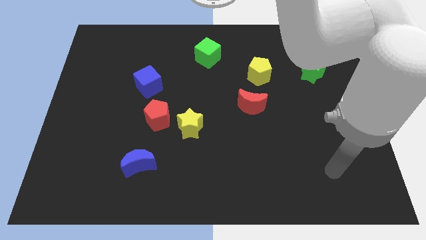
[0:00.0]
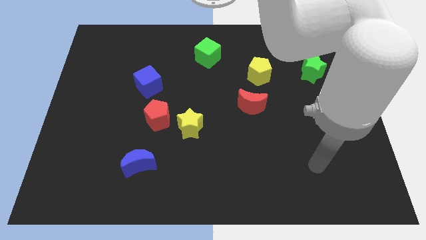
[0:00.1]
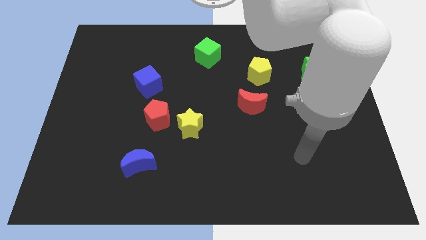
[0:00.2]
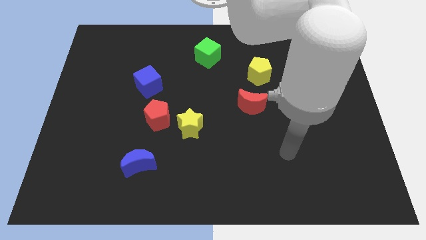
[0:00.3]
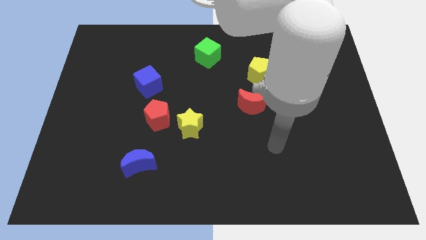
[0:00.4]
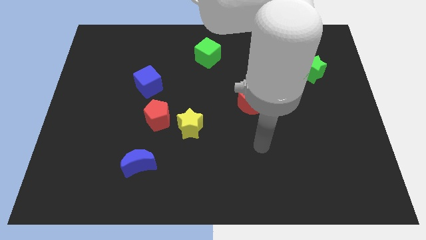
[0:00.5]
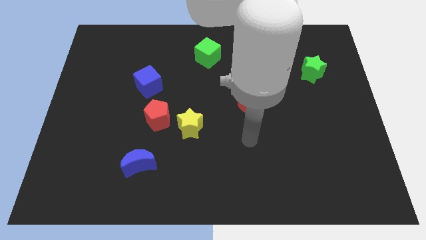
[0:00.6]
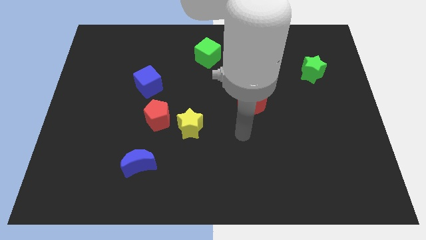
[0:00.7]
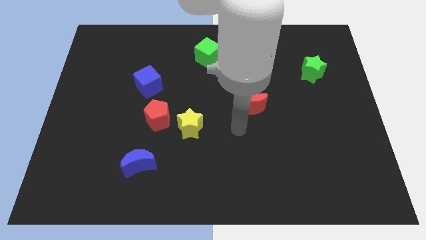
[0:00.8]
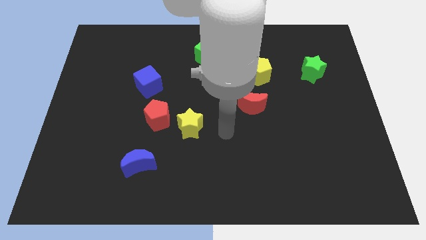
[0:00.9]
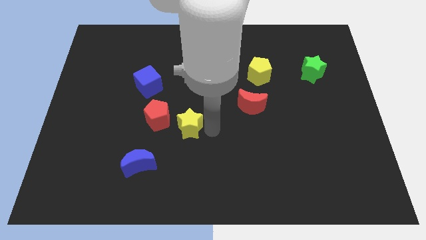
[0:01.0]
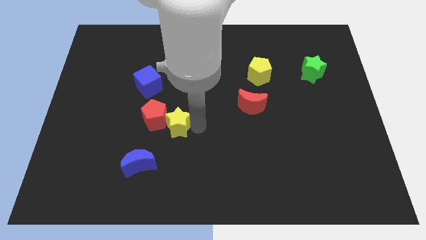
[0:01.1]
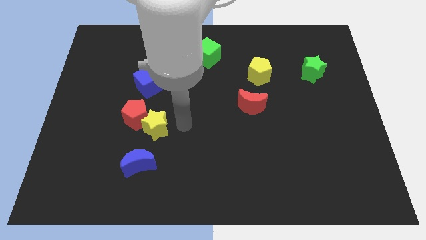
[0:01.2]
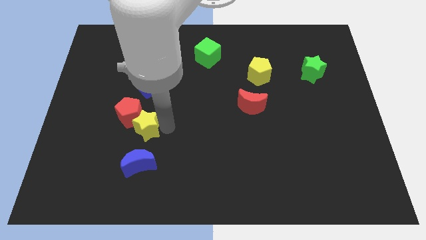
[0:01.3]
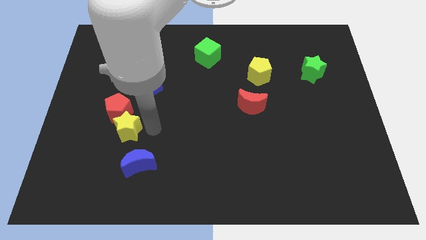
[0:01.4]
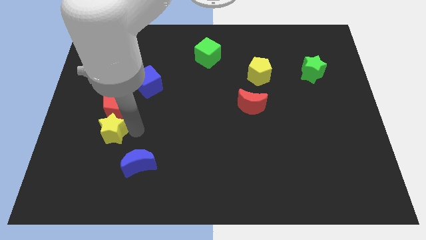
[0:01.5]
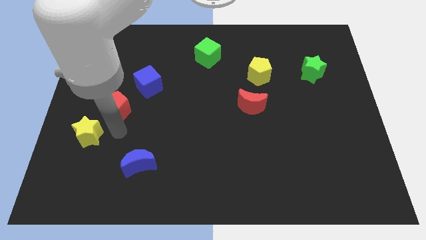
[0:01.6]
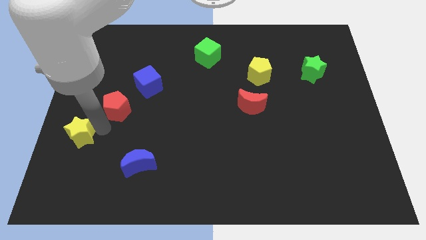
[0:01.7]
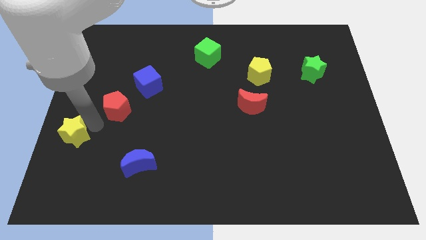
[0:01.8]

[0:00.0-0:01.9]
move the red pentagon away from the yellow star

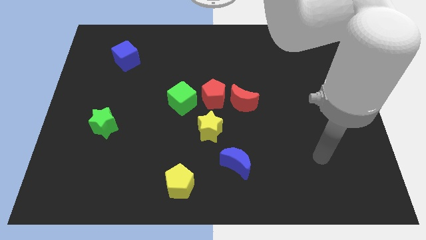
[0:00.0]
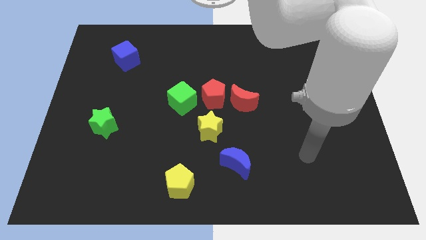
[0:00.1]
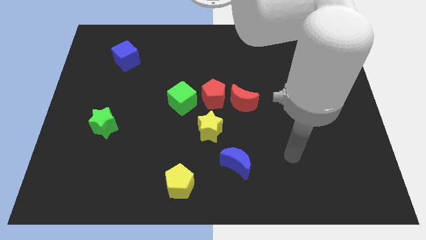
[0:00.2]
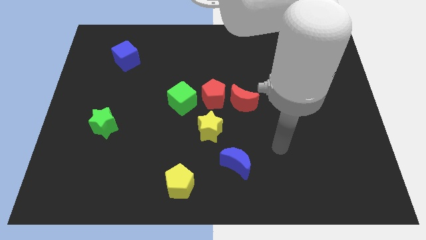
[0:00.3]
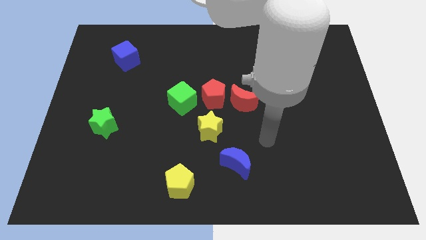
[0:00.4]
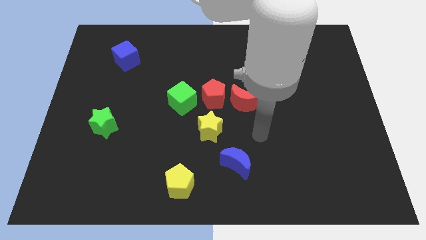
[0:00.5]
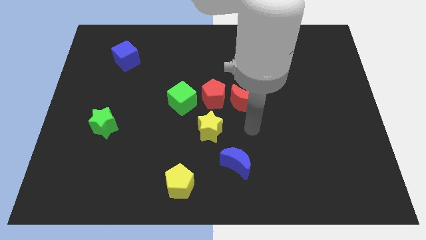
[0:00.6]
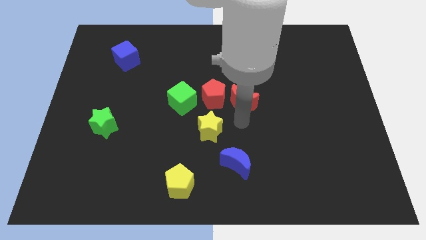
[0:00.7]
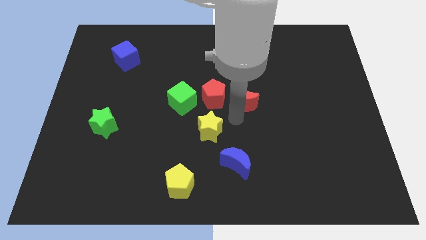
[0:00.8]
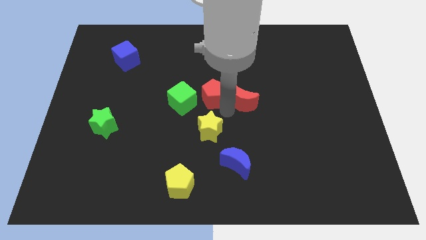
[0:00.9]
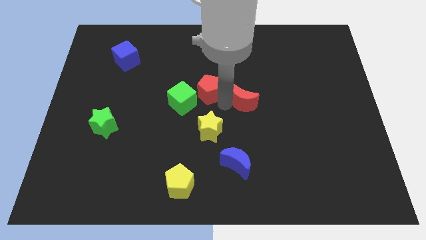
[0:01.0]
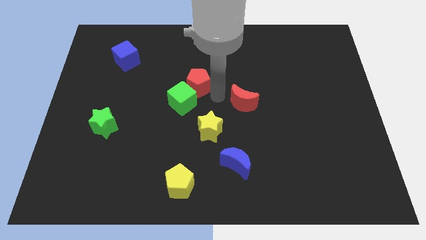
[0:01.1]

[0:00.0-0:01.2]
separate the red moon from the red pentagon

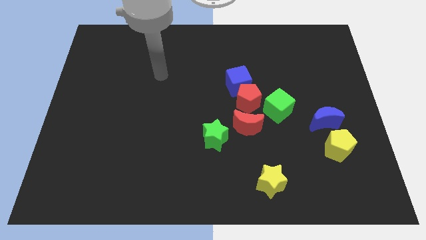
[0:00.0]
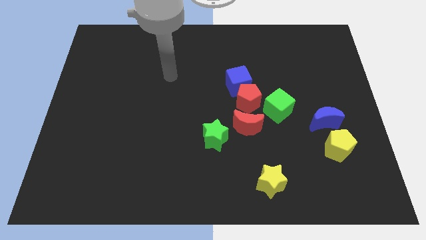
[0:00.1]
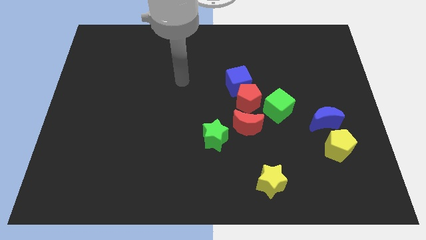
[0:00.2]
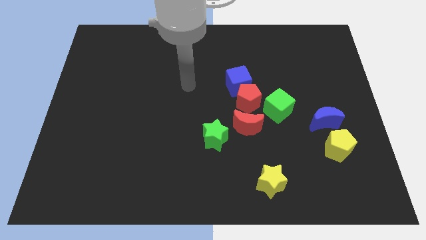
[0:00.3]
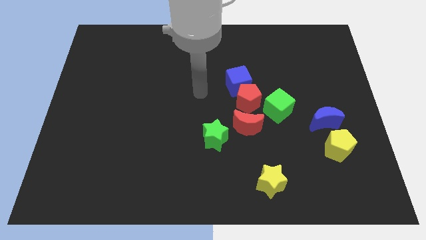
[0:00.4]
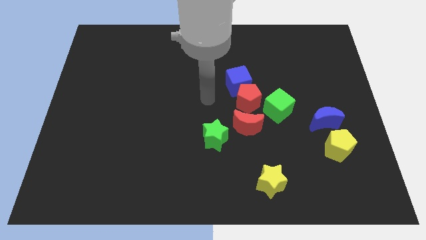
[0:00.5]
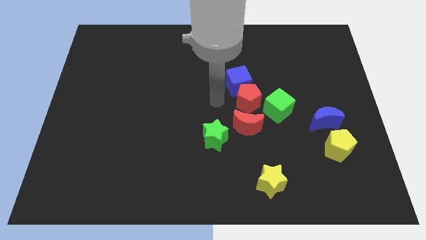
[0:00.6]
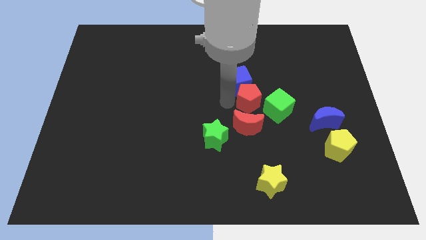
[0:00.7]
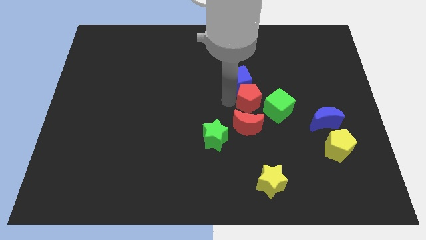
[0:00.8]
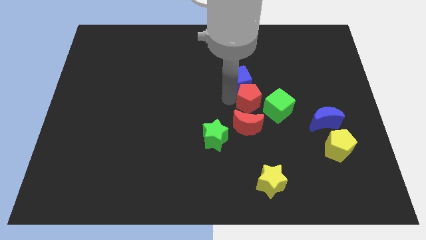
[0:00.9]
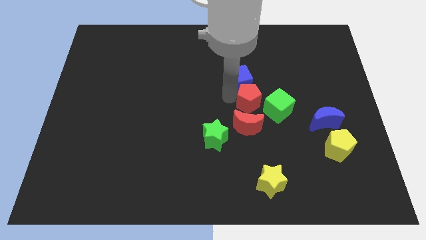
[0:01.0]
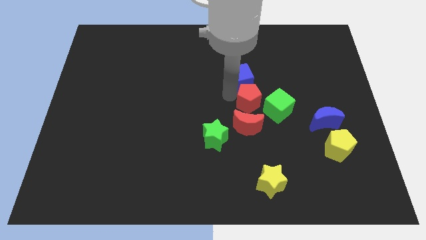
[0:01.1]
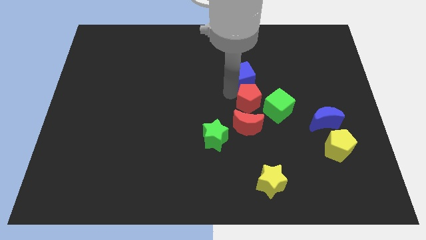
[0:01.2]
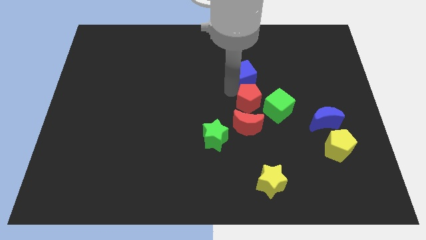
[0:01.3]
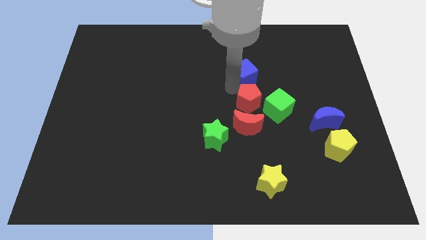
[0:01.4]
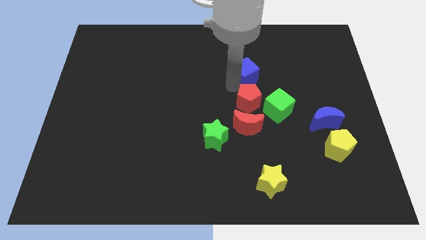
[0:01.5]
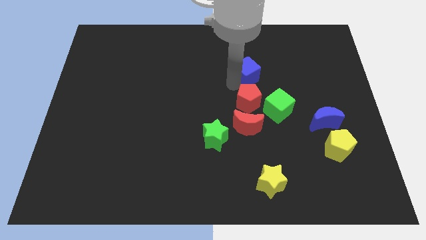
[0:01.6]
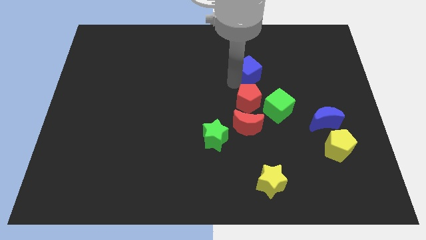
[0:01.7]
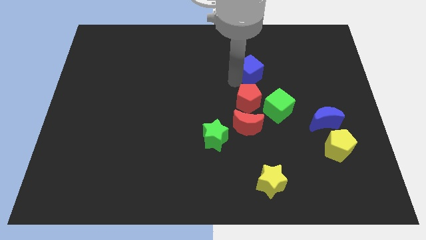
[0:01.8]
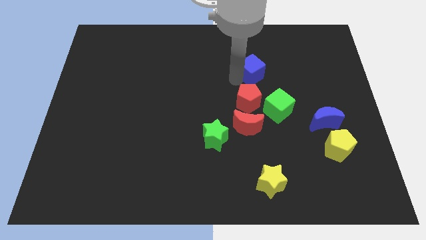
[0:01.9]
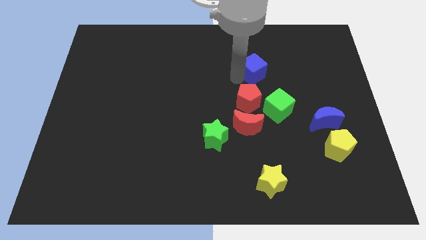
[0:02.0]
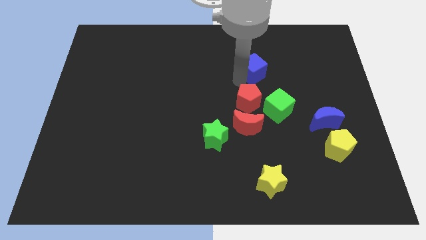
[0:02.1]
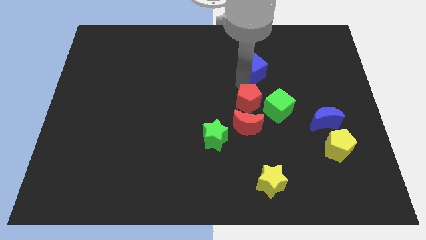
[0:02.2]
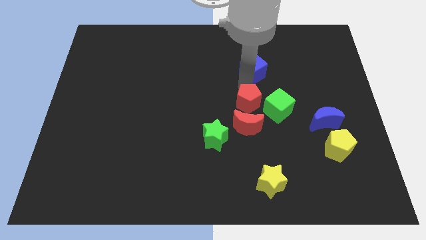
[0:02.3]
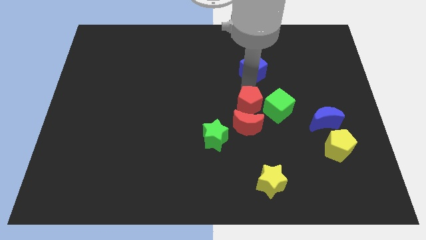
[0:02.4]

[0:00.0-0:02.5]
move the blue cube away from the red pentagon

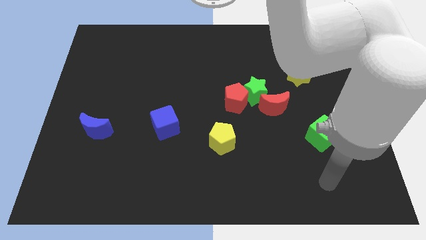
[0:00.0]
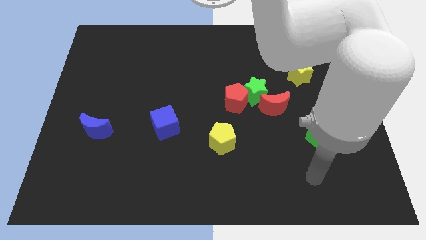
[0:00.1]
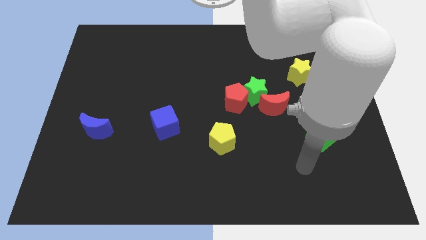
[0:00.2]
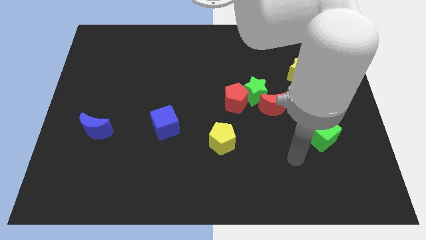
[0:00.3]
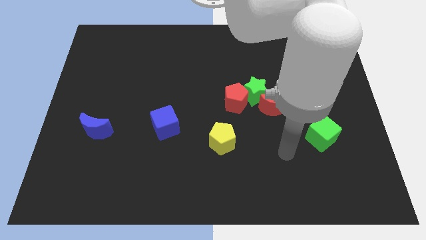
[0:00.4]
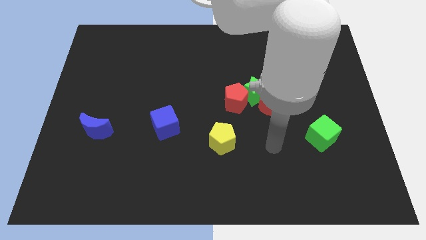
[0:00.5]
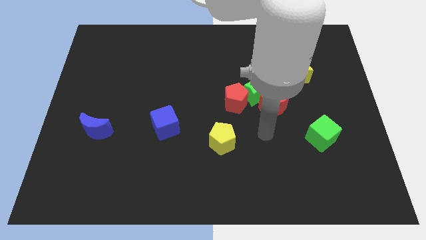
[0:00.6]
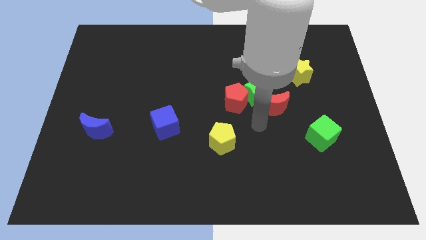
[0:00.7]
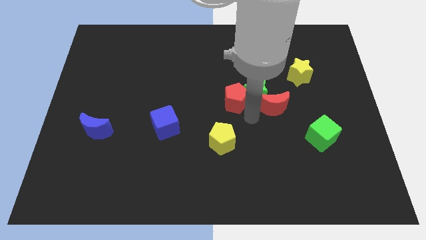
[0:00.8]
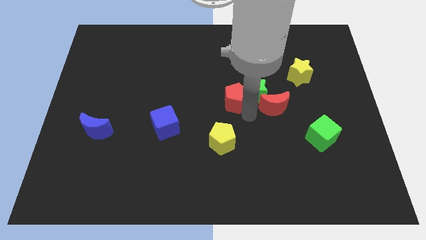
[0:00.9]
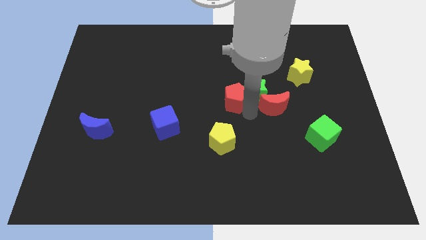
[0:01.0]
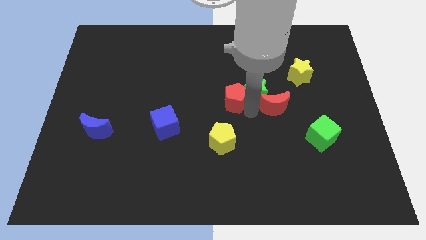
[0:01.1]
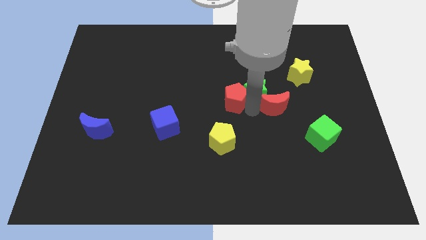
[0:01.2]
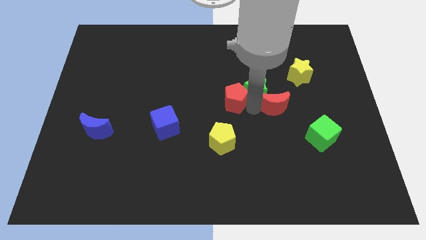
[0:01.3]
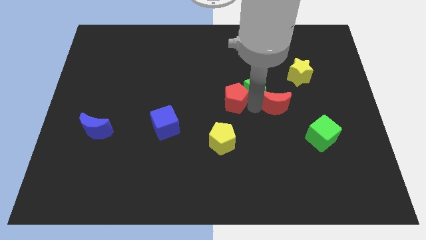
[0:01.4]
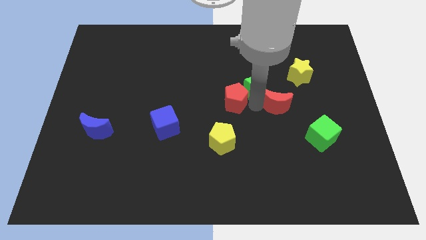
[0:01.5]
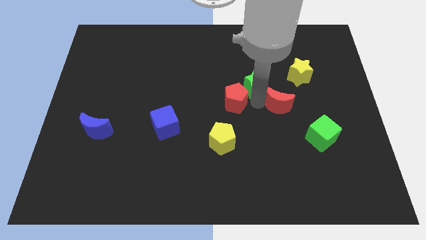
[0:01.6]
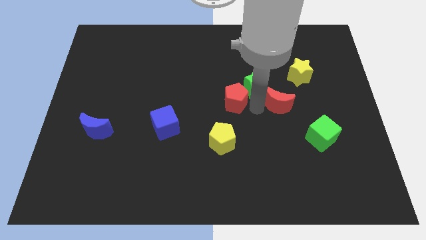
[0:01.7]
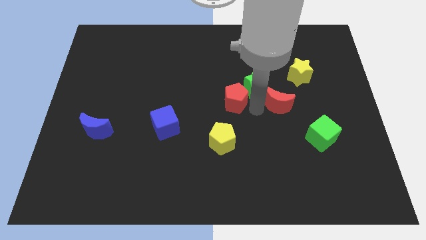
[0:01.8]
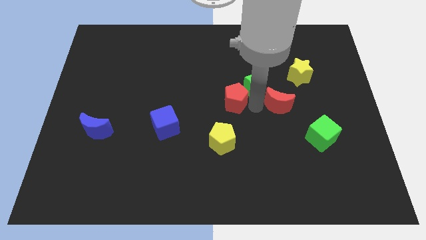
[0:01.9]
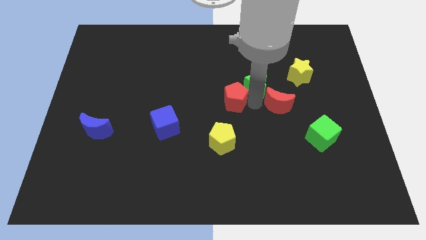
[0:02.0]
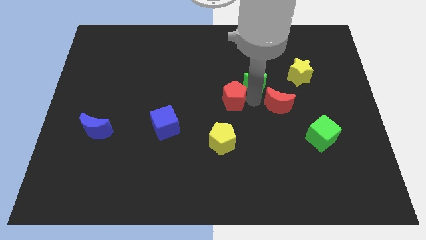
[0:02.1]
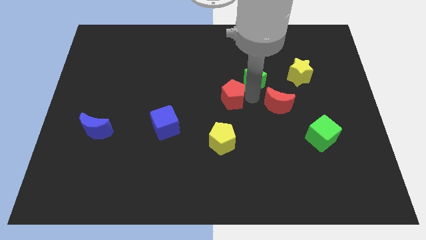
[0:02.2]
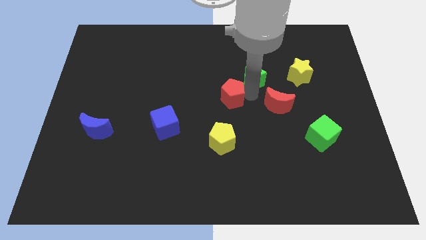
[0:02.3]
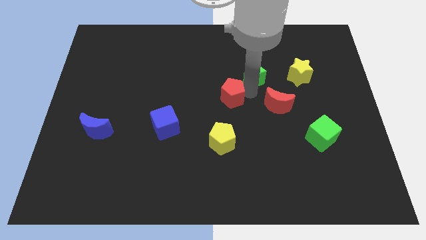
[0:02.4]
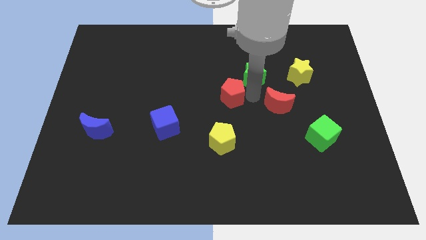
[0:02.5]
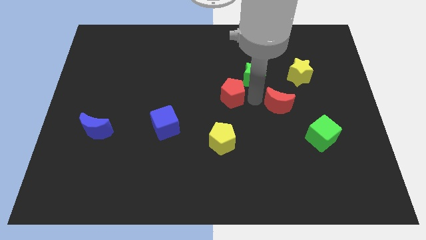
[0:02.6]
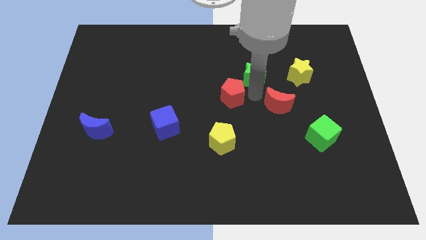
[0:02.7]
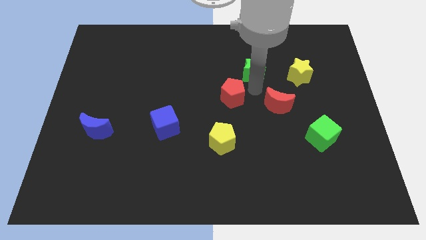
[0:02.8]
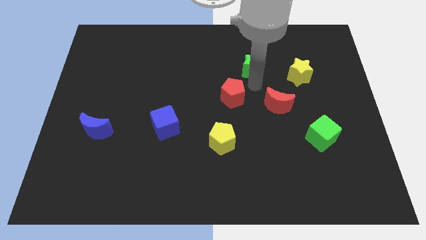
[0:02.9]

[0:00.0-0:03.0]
pull the green star apart from the red pentagon and red moon

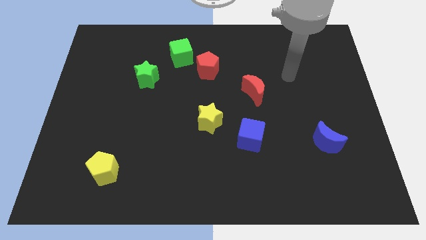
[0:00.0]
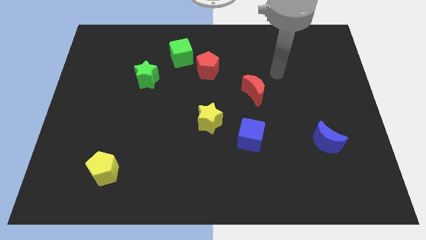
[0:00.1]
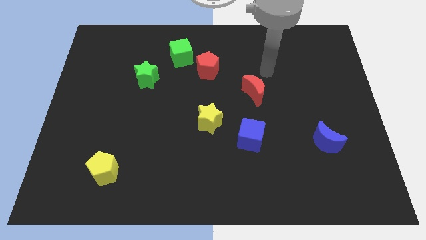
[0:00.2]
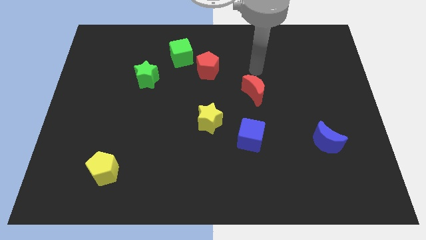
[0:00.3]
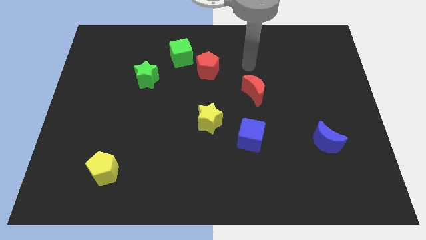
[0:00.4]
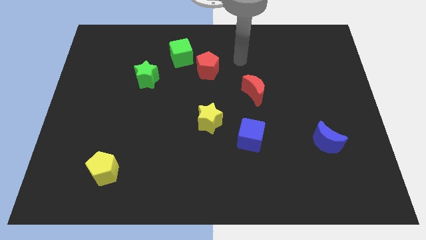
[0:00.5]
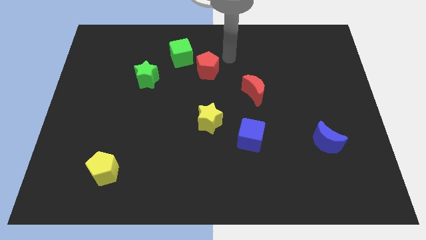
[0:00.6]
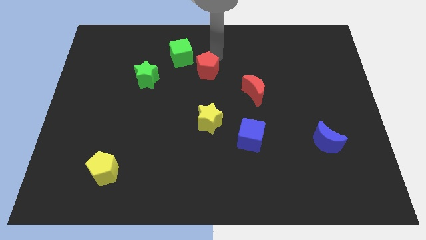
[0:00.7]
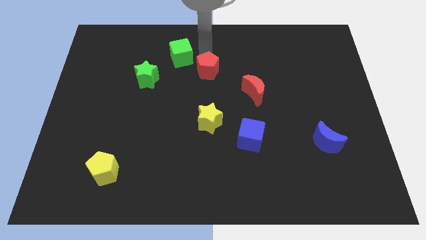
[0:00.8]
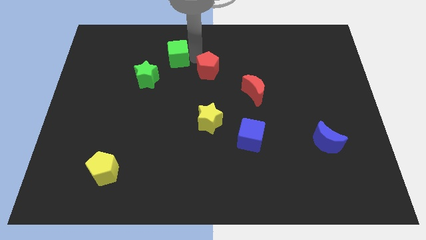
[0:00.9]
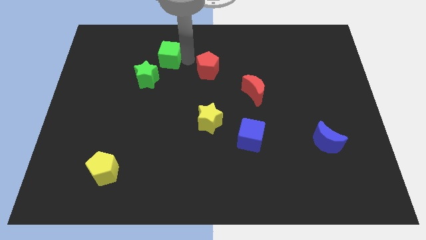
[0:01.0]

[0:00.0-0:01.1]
pull the red pentagon apart from the green cube
